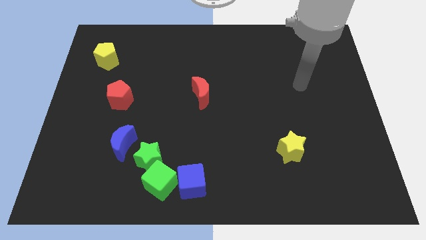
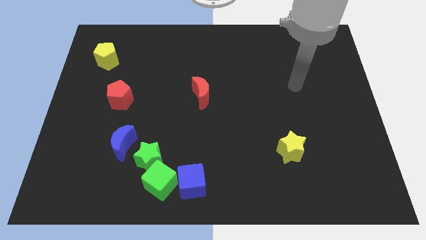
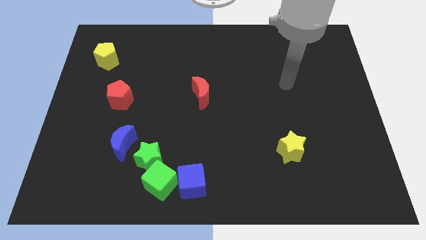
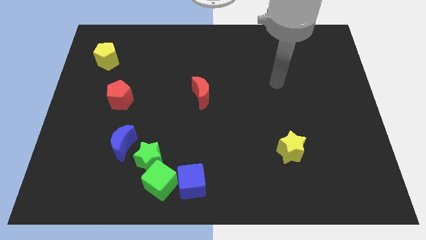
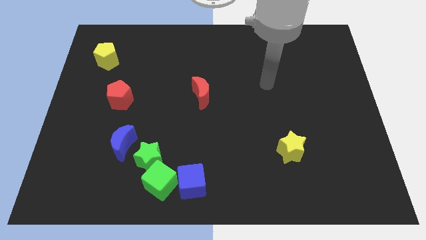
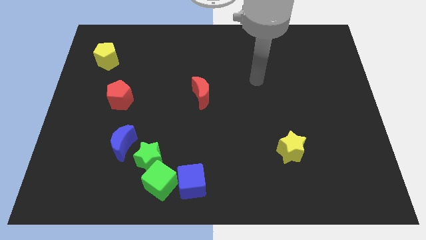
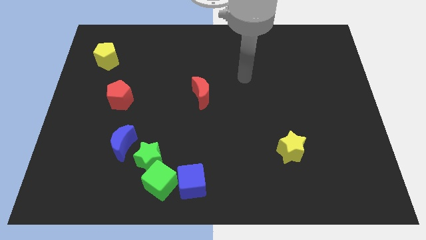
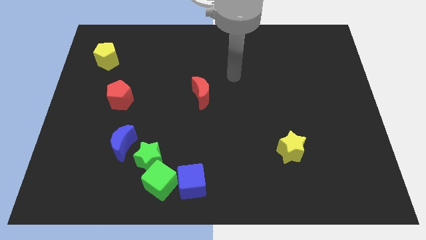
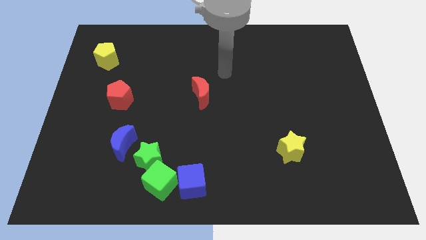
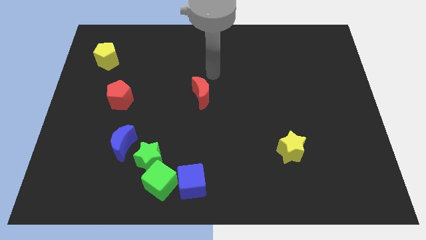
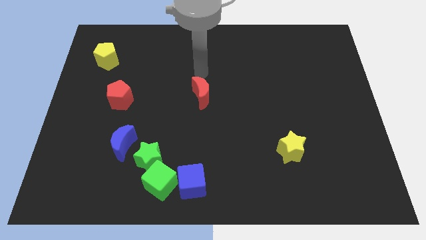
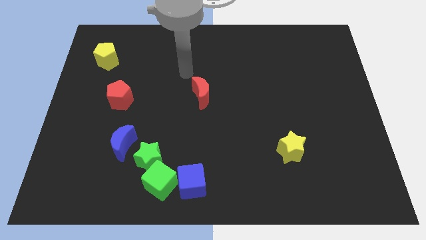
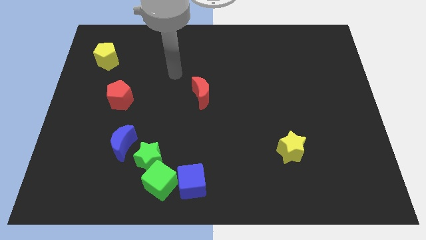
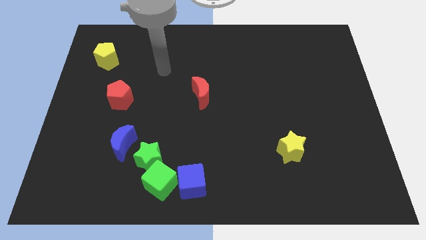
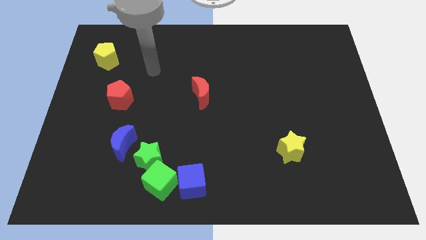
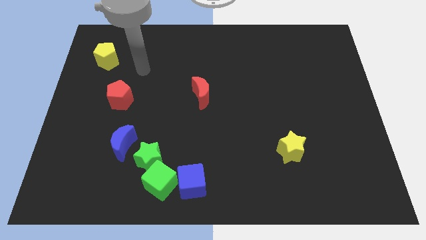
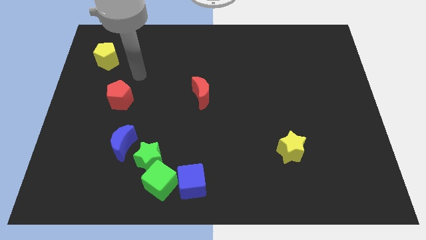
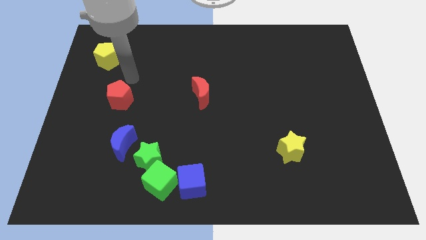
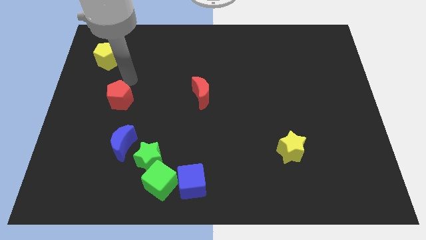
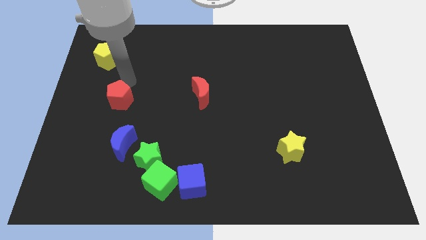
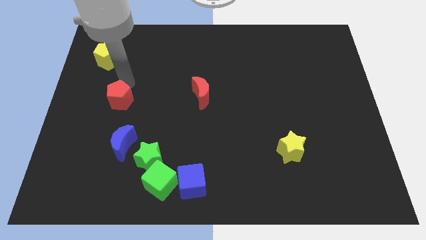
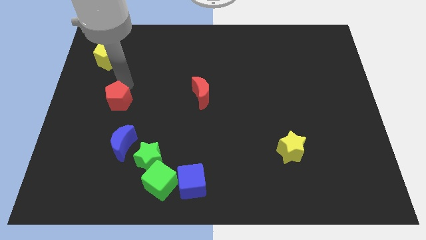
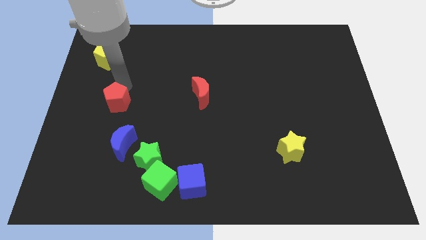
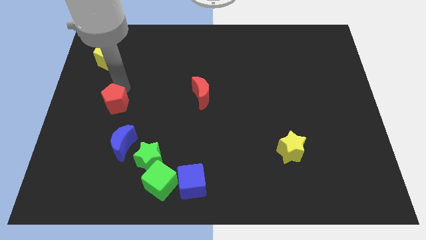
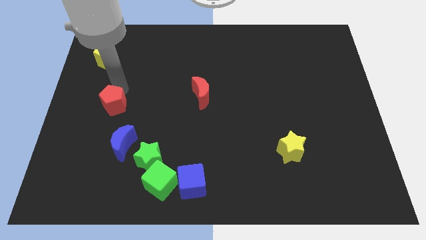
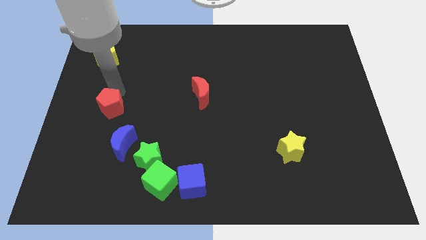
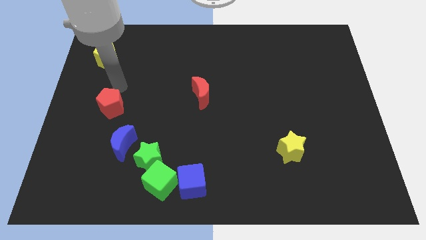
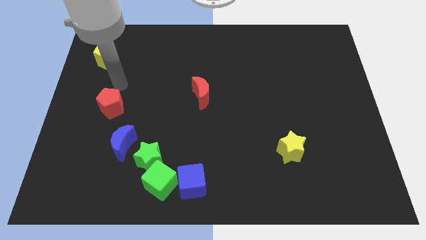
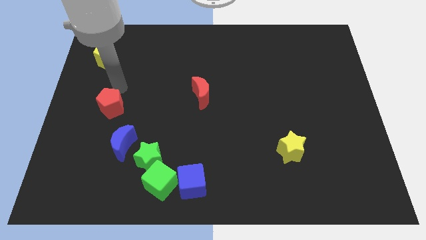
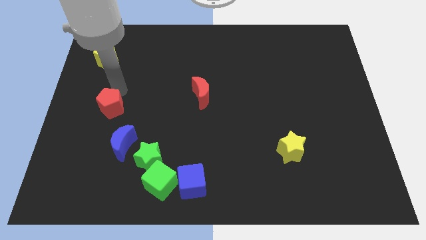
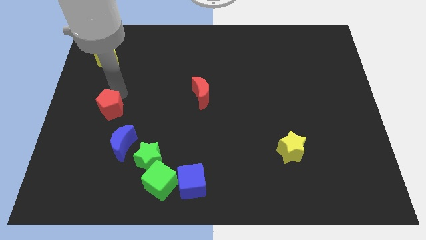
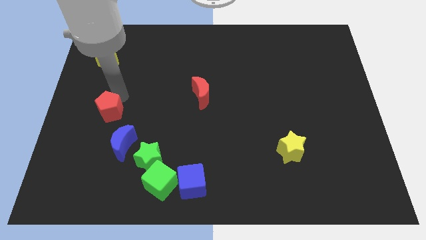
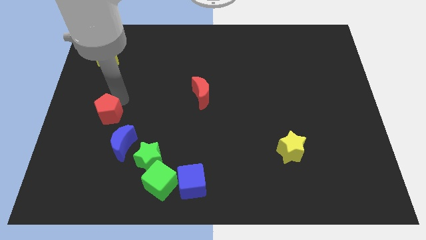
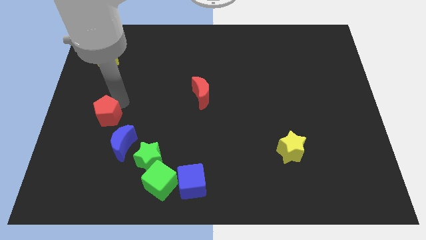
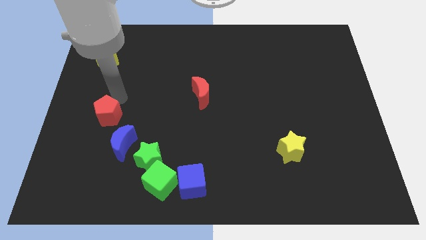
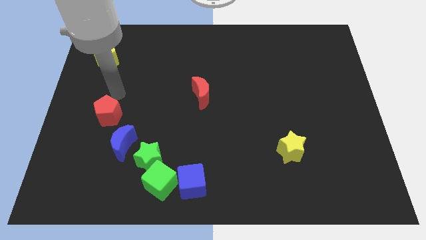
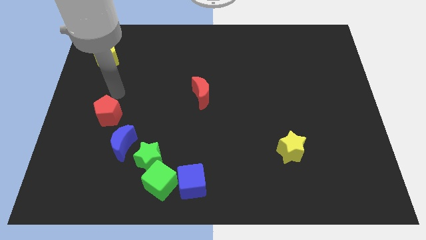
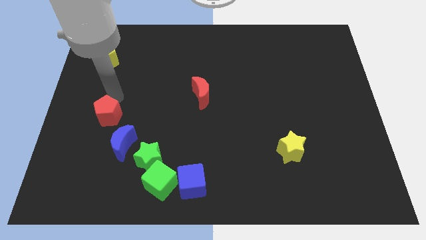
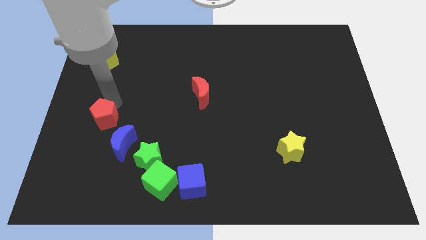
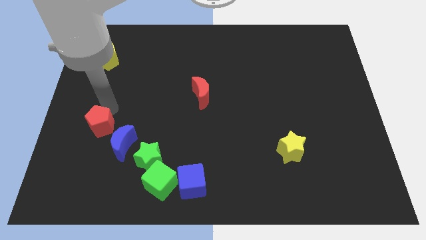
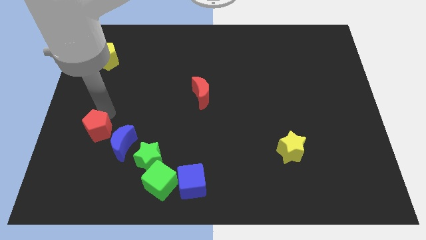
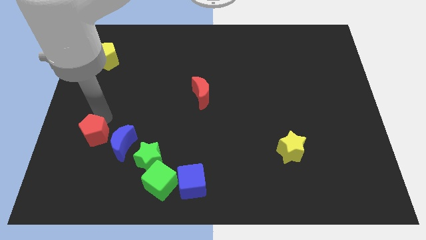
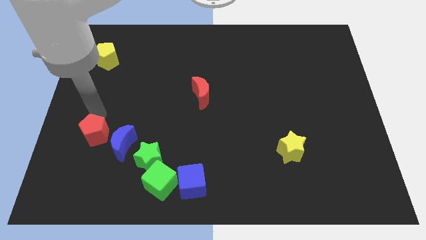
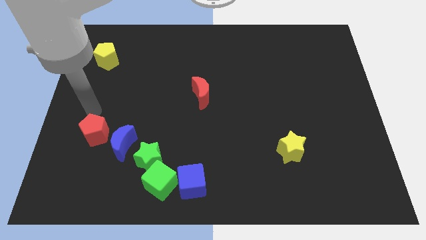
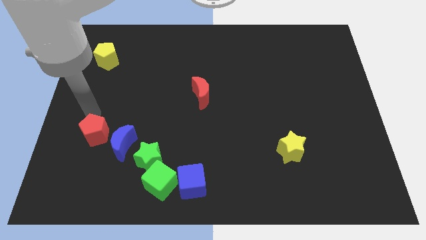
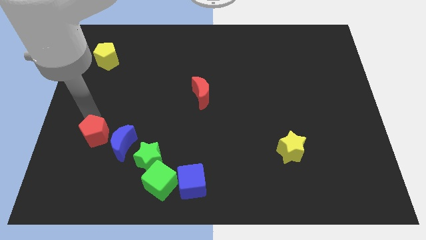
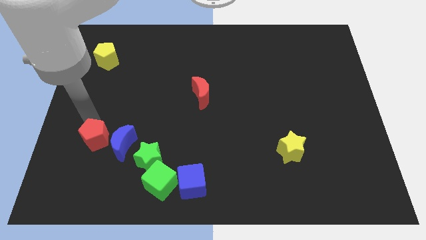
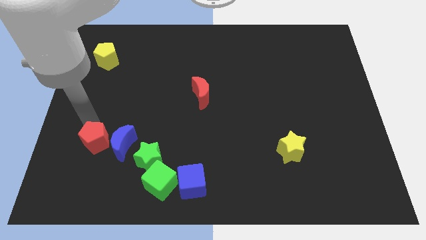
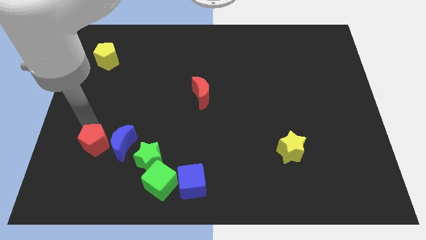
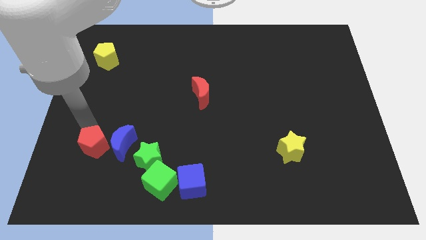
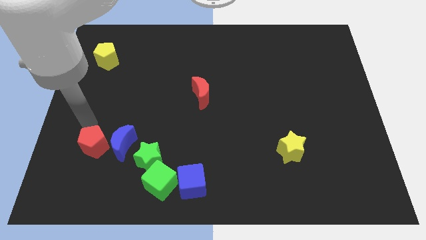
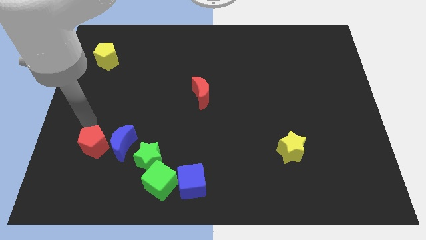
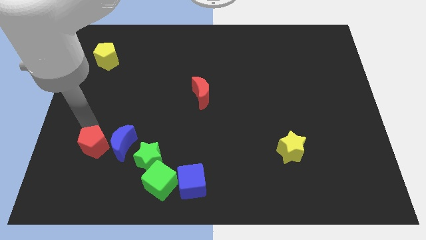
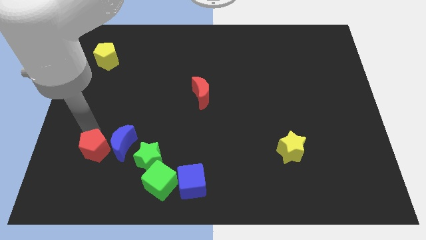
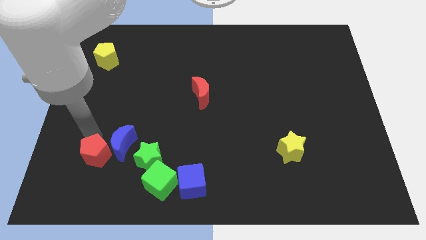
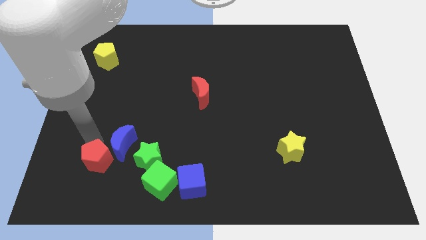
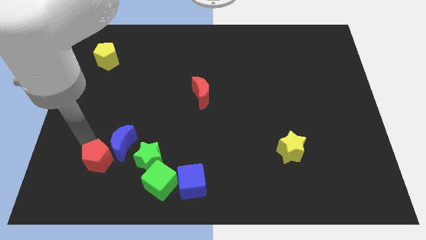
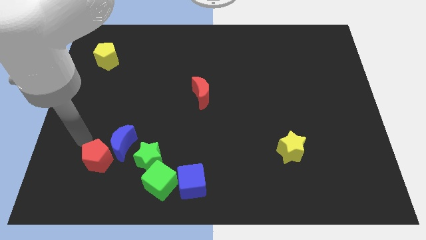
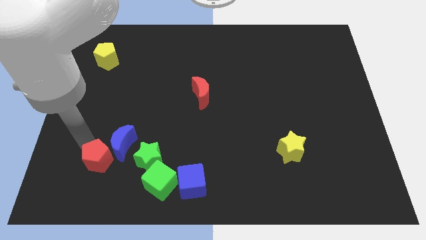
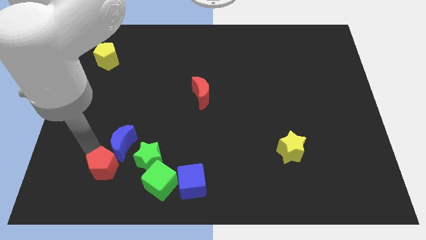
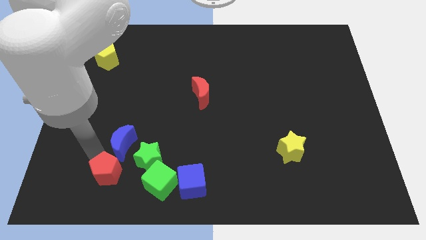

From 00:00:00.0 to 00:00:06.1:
put the red pentagon to the bottom left of the green star

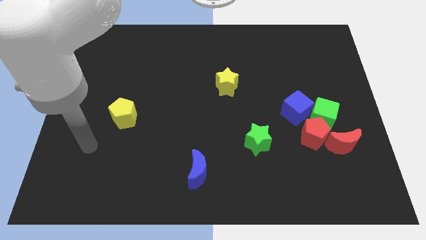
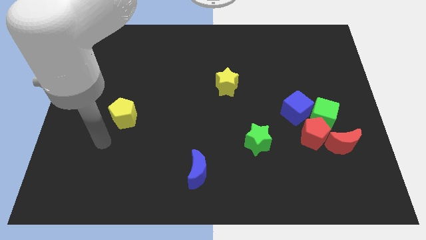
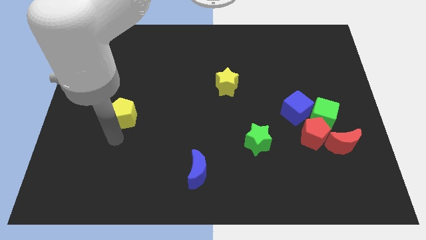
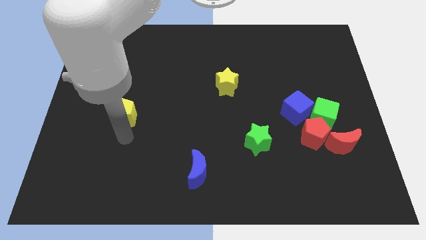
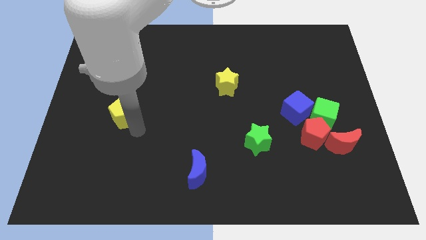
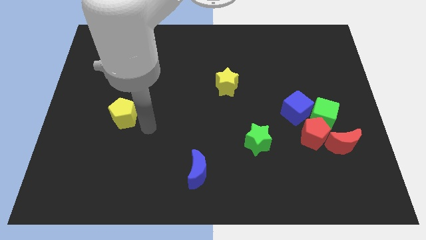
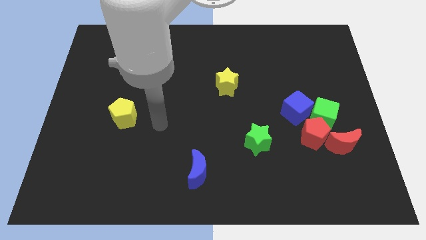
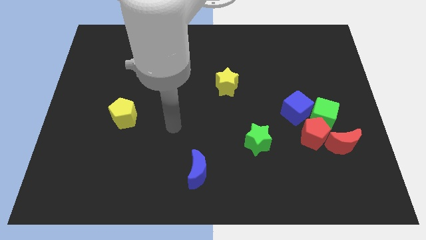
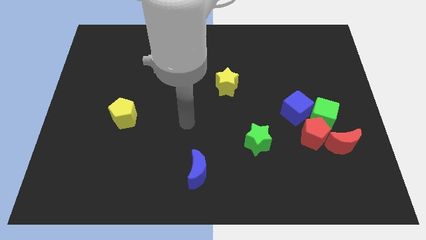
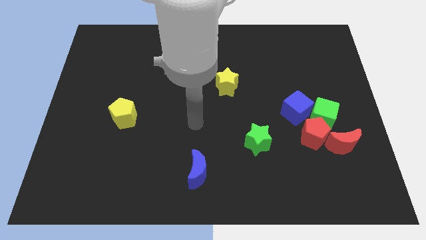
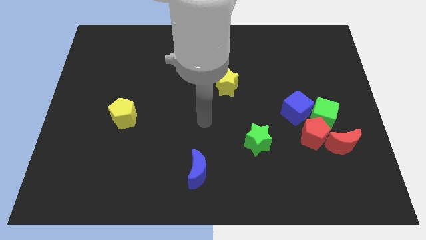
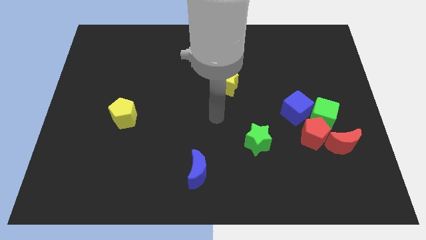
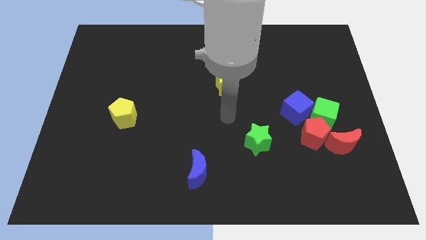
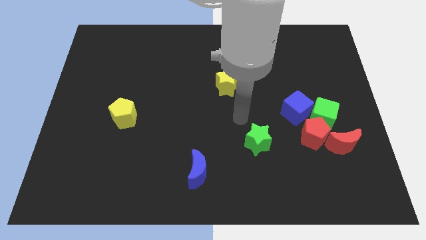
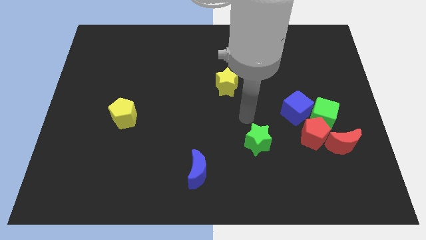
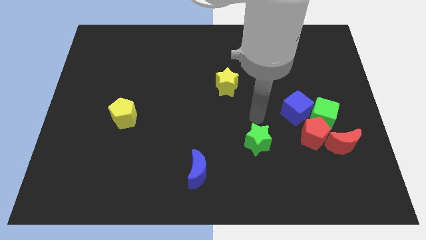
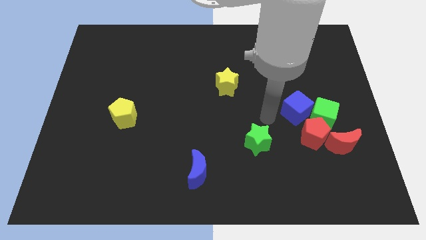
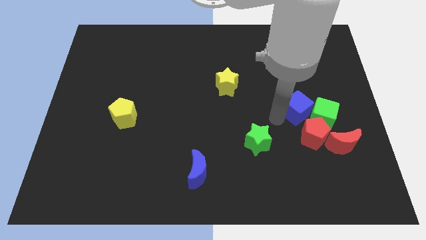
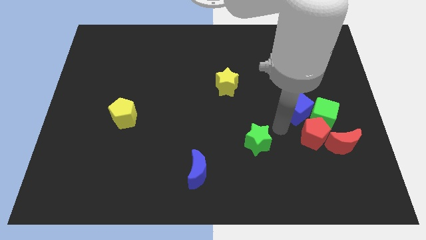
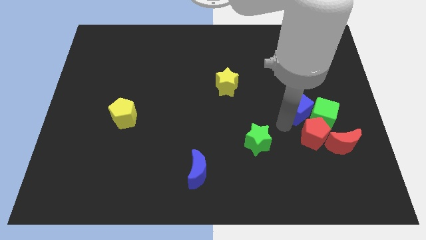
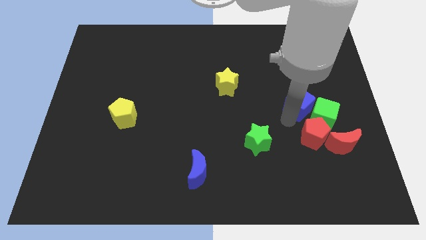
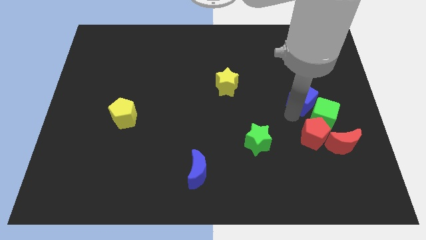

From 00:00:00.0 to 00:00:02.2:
move the blue cube to the top of the green cube
